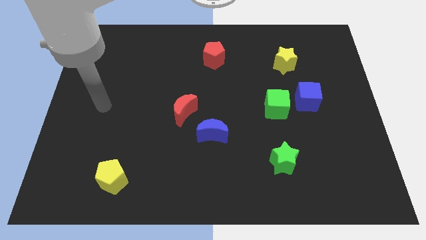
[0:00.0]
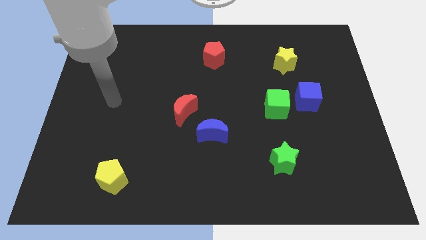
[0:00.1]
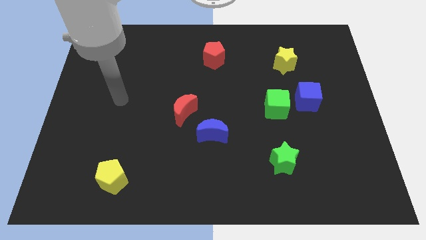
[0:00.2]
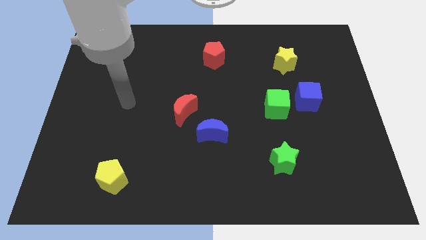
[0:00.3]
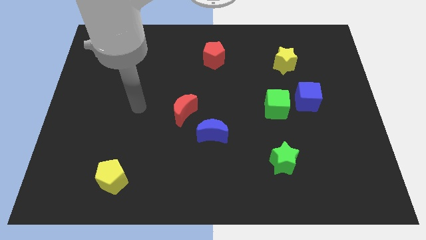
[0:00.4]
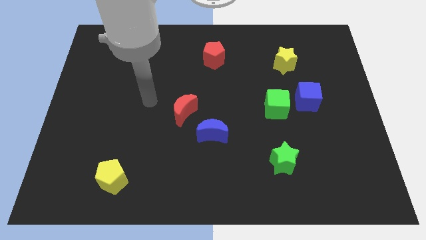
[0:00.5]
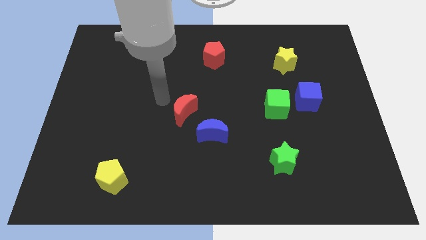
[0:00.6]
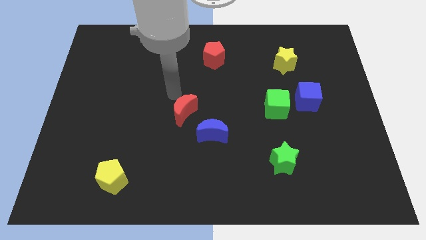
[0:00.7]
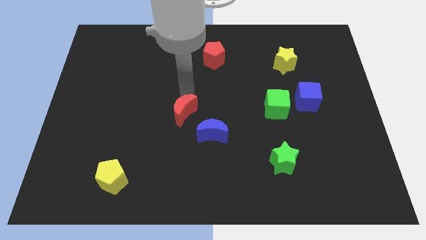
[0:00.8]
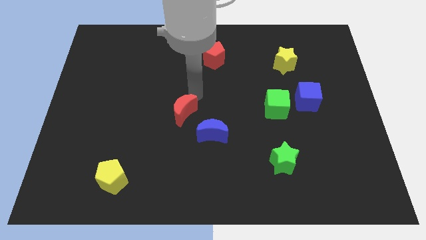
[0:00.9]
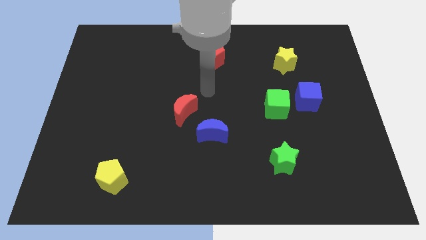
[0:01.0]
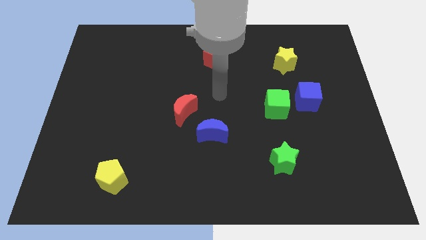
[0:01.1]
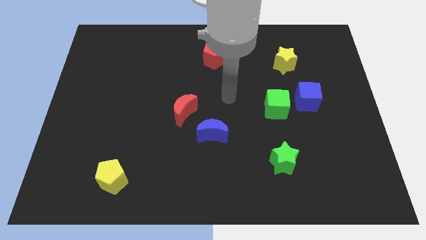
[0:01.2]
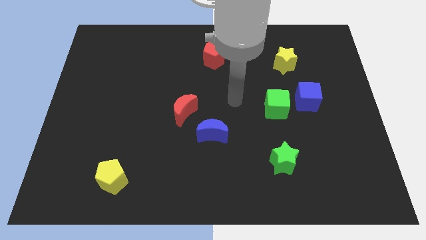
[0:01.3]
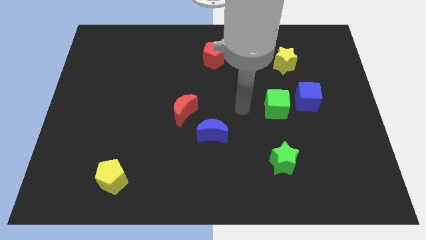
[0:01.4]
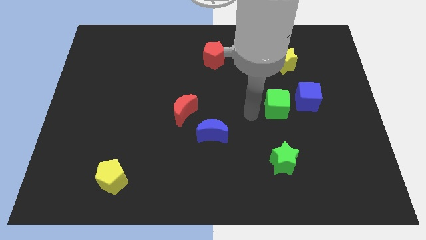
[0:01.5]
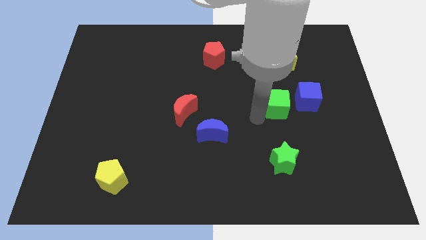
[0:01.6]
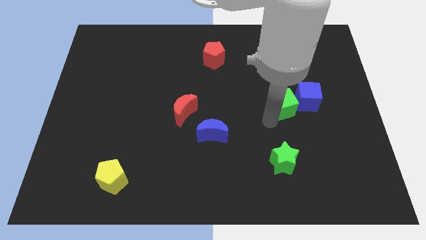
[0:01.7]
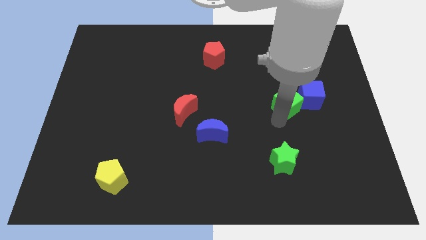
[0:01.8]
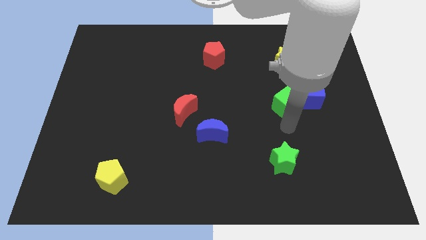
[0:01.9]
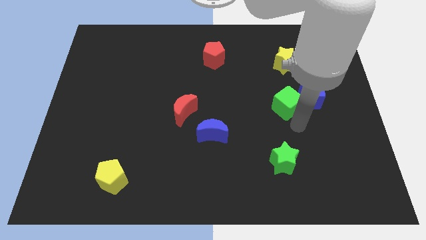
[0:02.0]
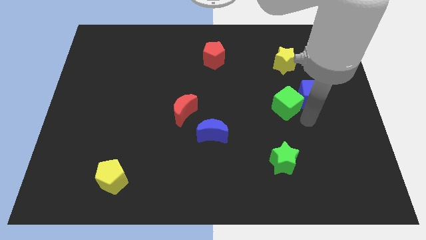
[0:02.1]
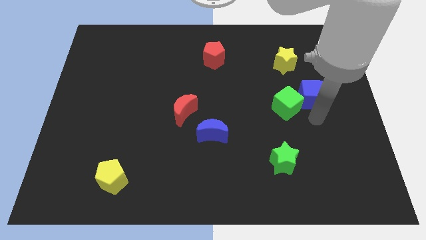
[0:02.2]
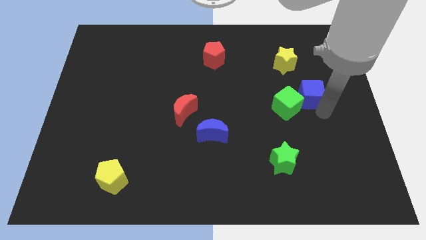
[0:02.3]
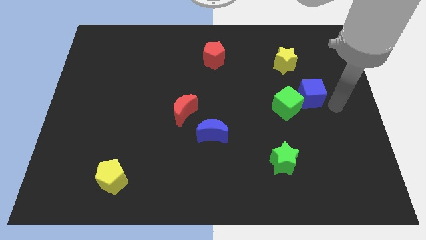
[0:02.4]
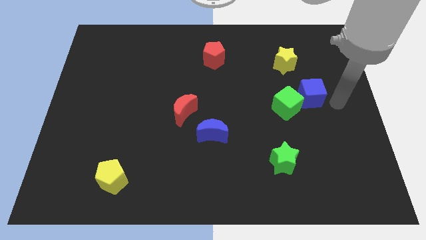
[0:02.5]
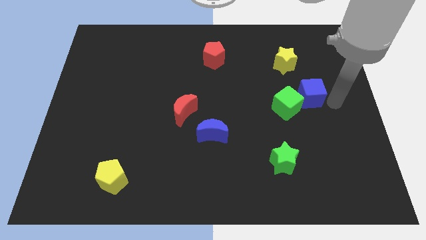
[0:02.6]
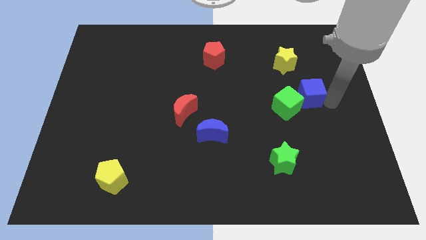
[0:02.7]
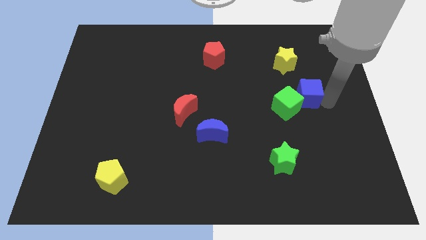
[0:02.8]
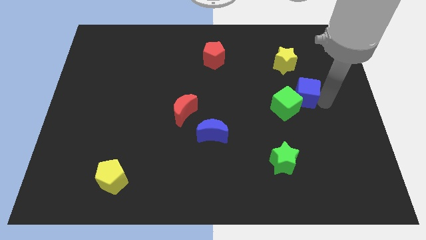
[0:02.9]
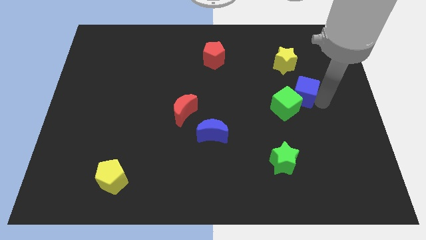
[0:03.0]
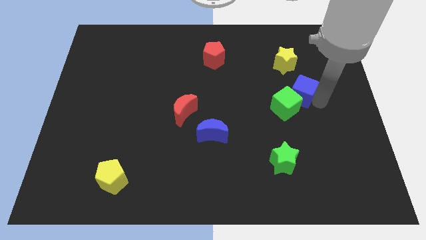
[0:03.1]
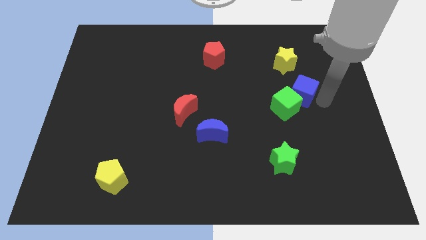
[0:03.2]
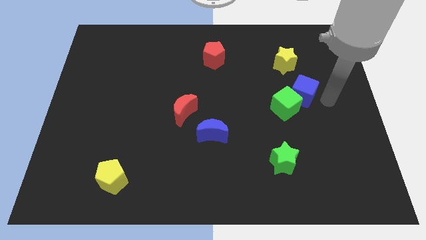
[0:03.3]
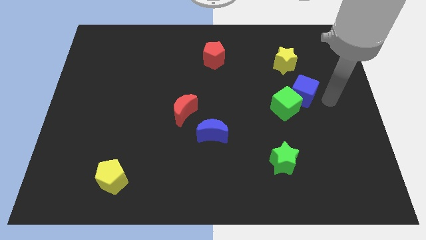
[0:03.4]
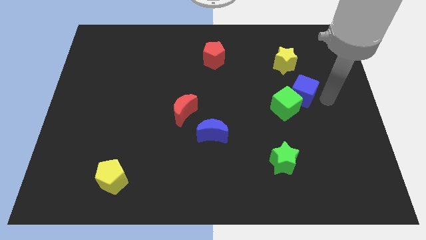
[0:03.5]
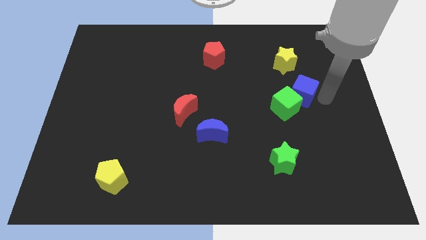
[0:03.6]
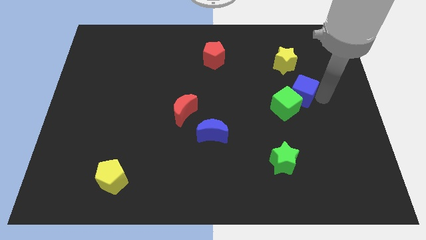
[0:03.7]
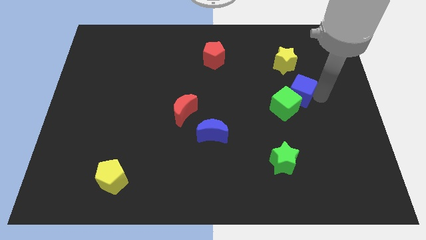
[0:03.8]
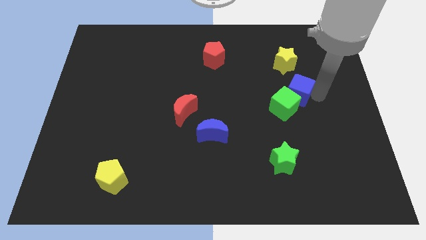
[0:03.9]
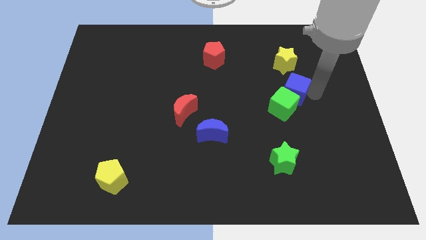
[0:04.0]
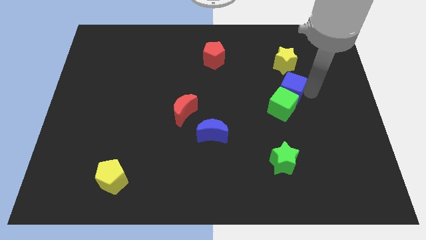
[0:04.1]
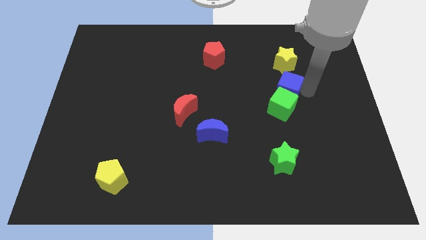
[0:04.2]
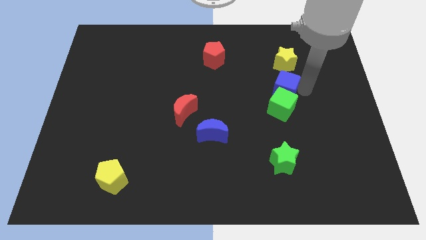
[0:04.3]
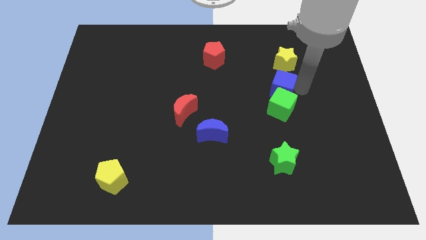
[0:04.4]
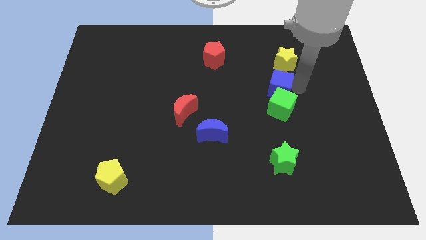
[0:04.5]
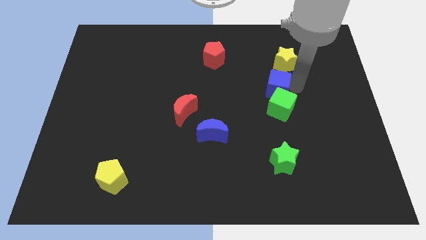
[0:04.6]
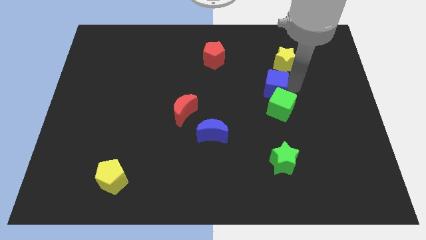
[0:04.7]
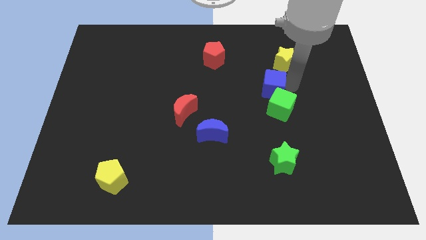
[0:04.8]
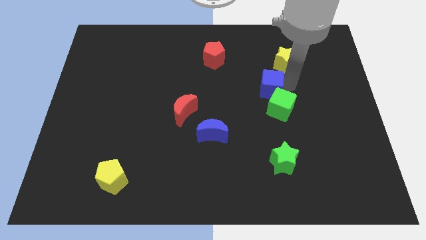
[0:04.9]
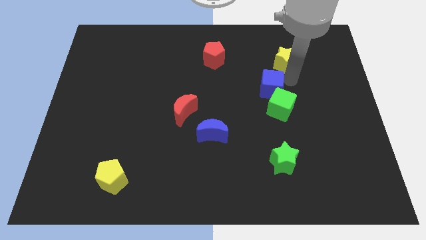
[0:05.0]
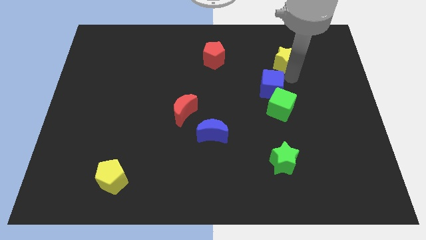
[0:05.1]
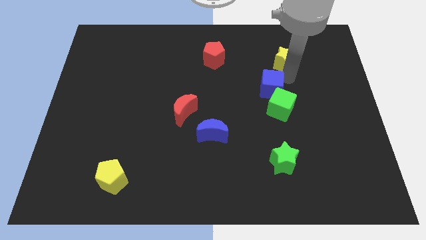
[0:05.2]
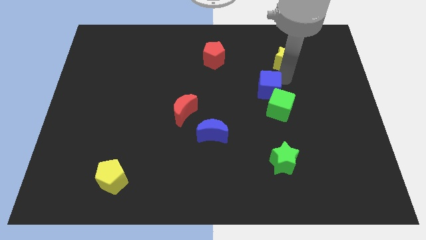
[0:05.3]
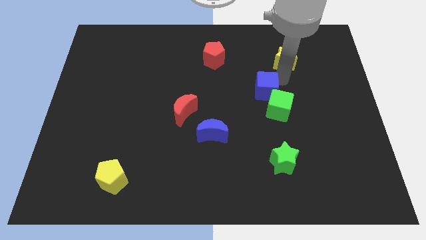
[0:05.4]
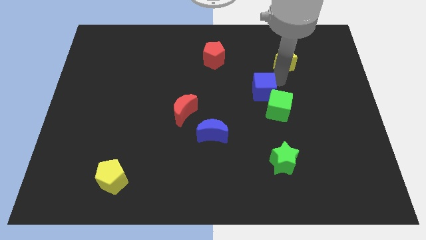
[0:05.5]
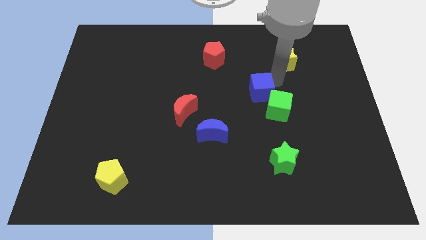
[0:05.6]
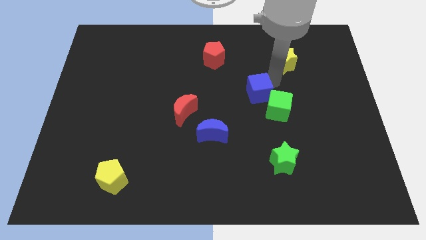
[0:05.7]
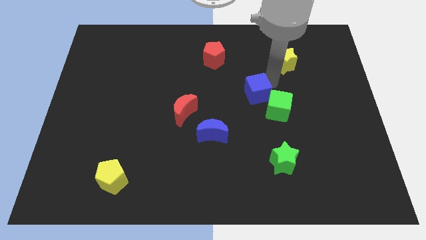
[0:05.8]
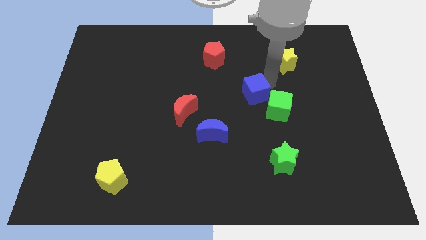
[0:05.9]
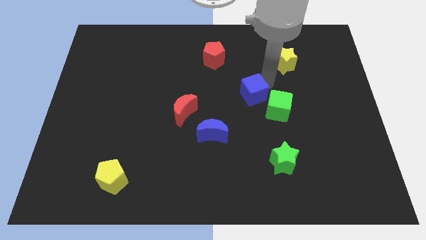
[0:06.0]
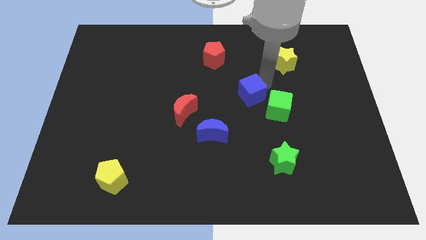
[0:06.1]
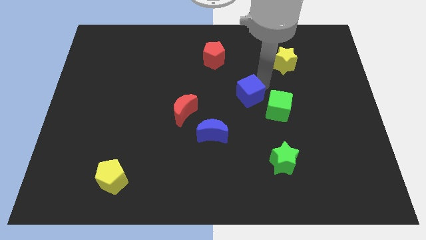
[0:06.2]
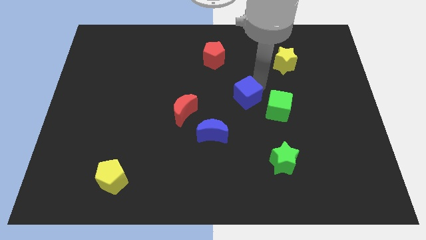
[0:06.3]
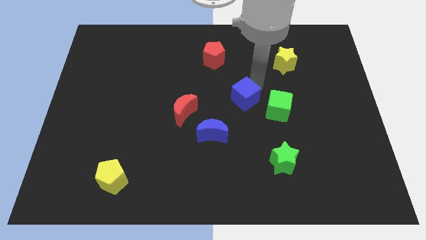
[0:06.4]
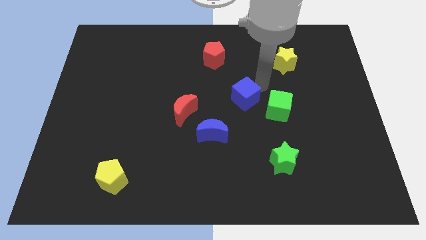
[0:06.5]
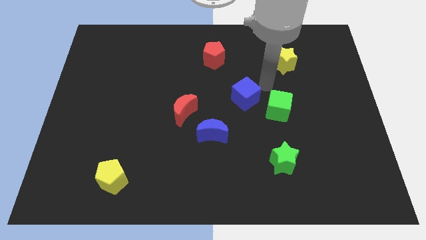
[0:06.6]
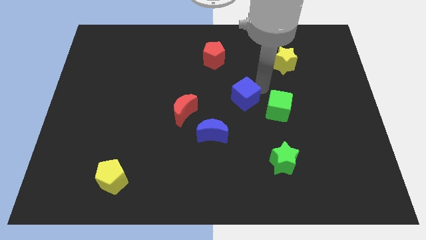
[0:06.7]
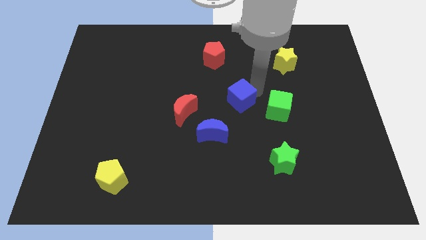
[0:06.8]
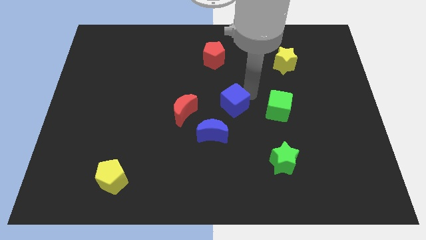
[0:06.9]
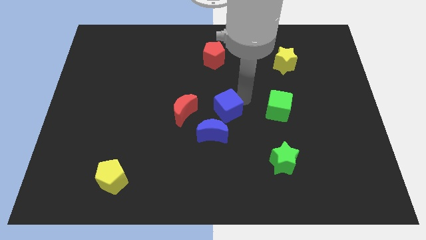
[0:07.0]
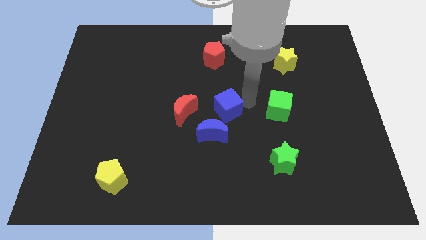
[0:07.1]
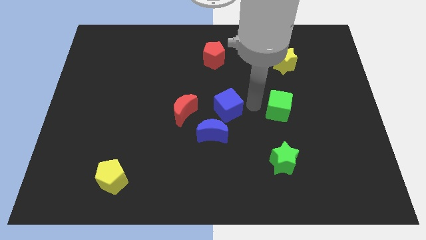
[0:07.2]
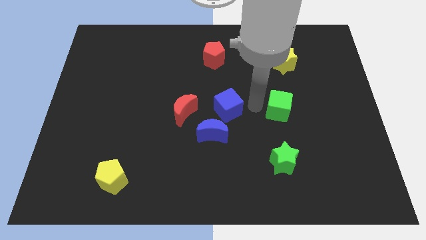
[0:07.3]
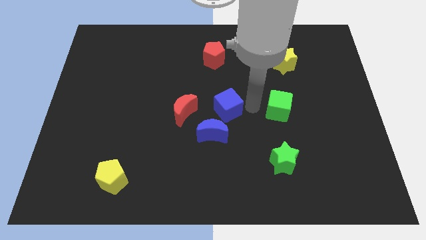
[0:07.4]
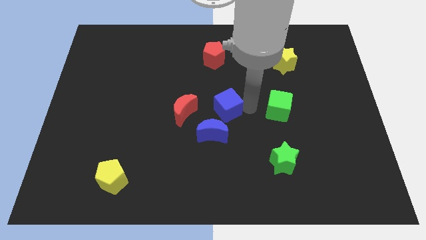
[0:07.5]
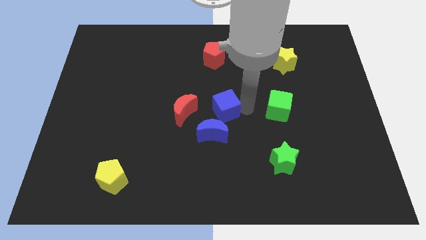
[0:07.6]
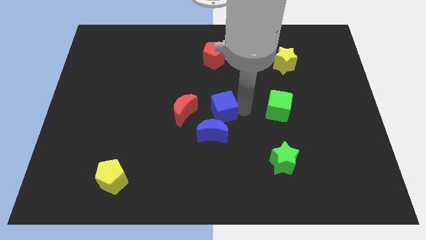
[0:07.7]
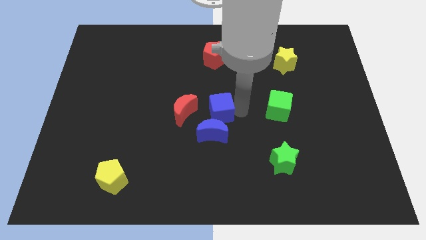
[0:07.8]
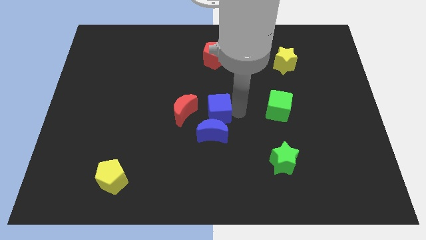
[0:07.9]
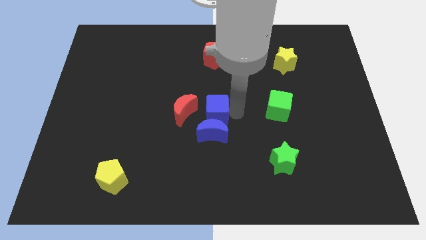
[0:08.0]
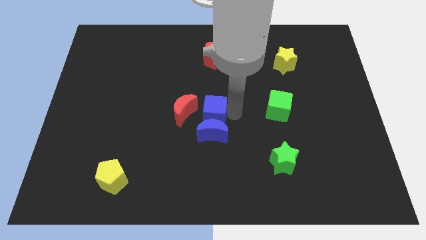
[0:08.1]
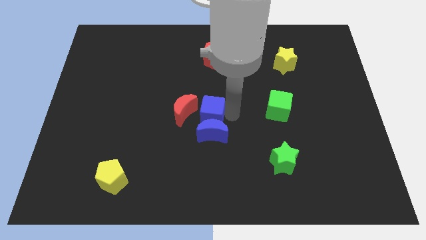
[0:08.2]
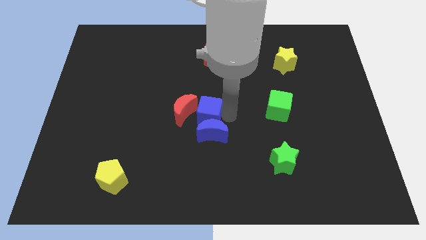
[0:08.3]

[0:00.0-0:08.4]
push the blue cube close to the red moon
